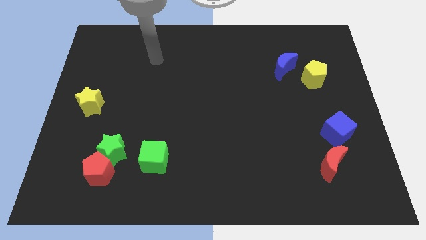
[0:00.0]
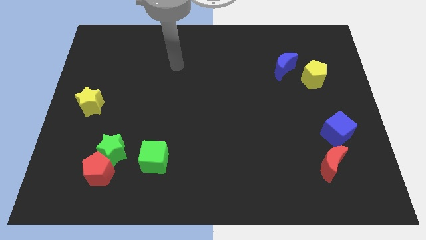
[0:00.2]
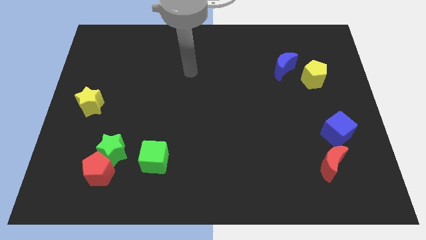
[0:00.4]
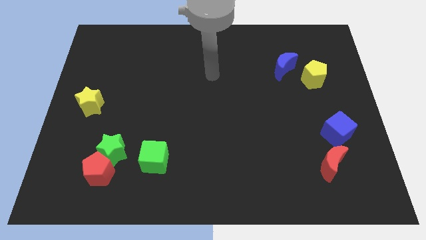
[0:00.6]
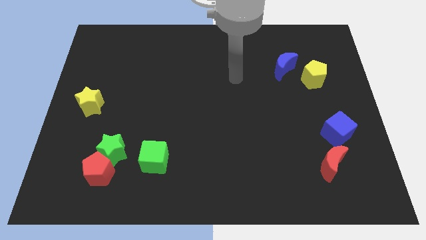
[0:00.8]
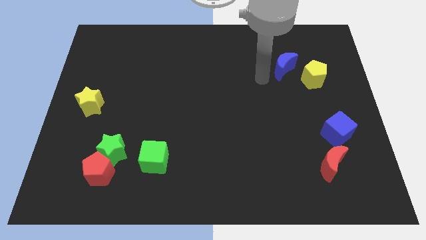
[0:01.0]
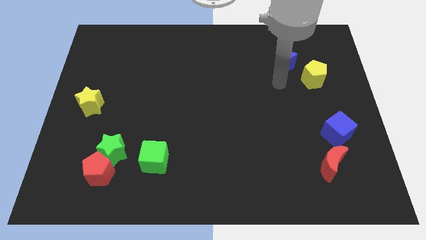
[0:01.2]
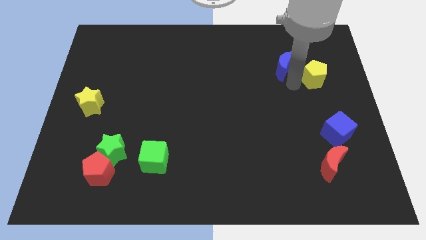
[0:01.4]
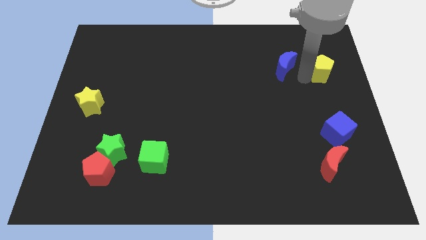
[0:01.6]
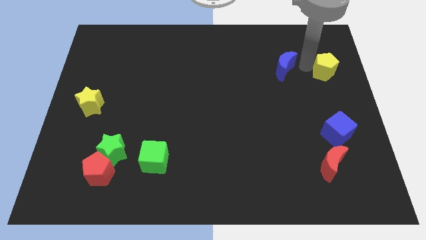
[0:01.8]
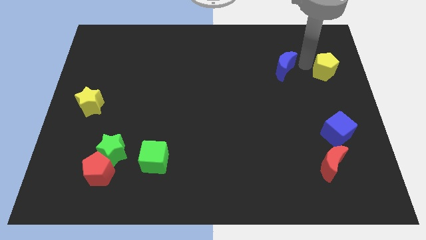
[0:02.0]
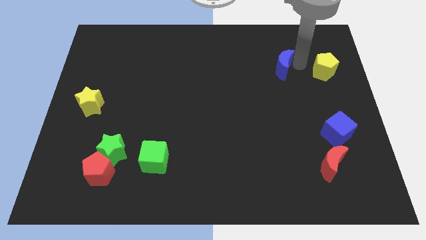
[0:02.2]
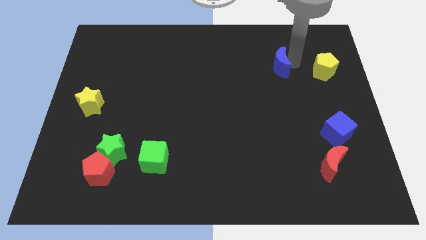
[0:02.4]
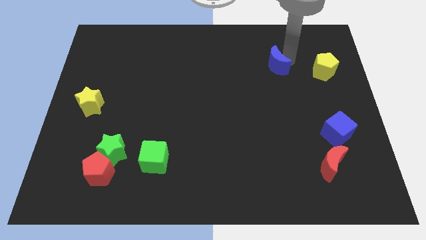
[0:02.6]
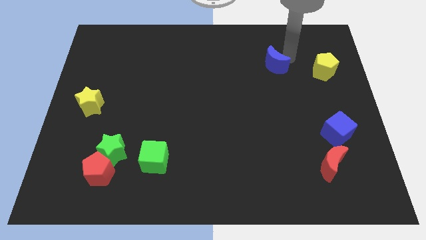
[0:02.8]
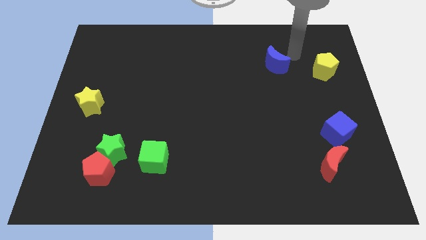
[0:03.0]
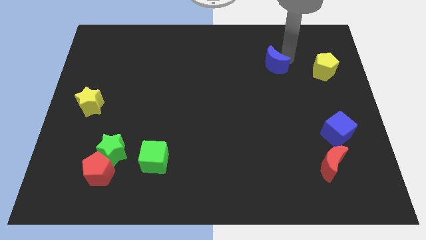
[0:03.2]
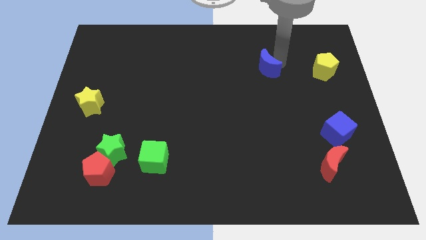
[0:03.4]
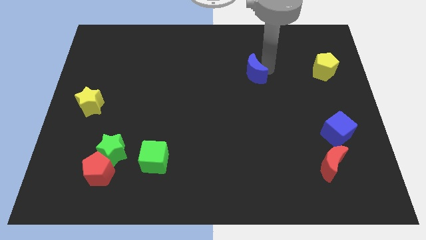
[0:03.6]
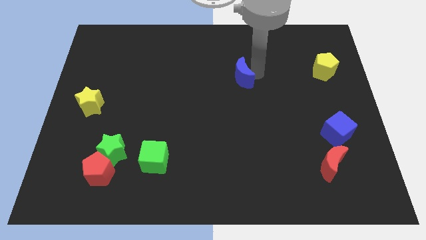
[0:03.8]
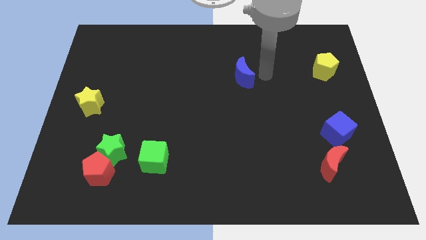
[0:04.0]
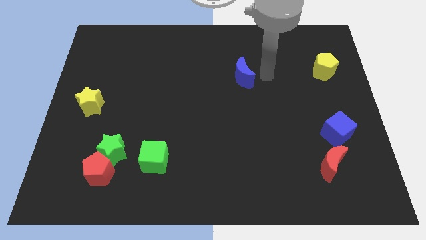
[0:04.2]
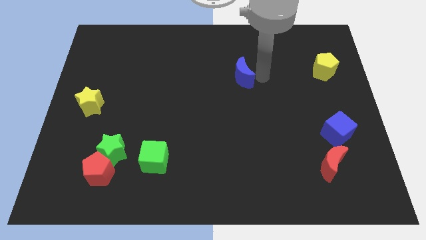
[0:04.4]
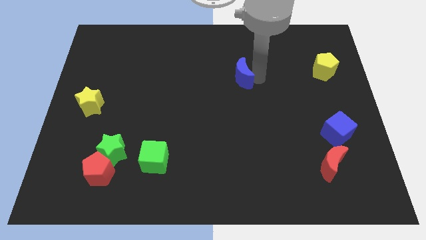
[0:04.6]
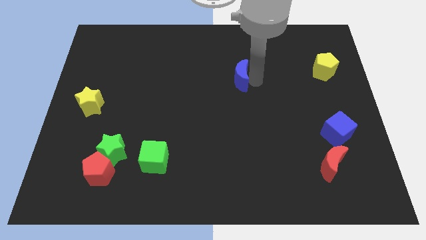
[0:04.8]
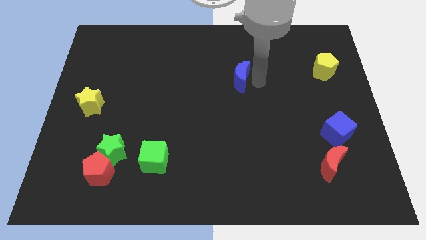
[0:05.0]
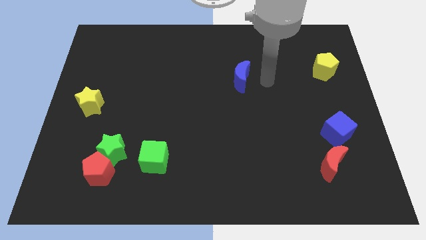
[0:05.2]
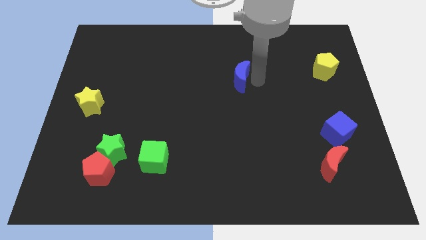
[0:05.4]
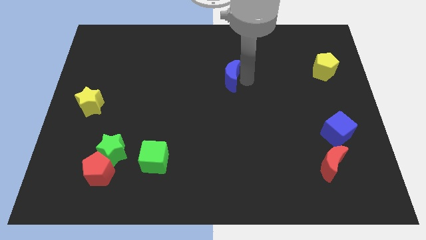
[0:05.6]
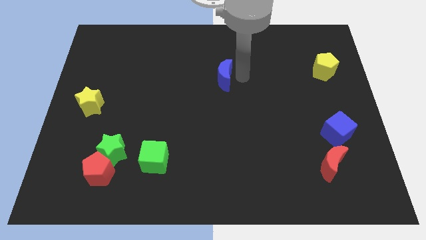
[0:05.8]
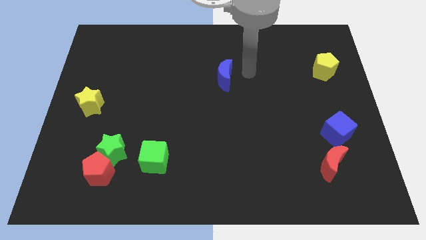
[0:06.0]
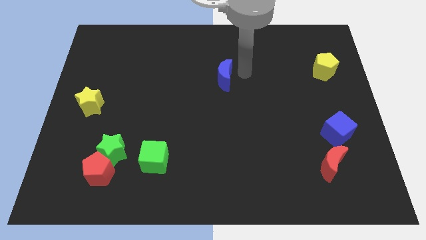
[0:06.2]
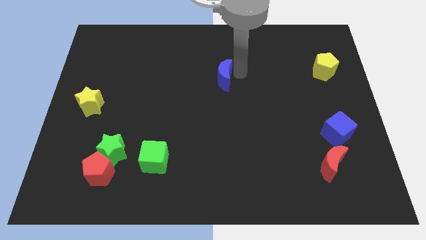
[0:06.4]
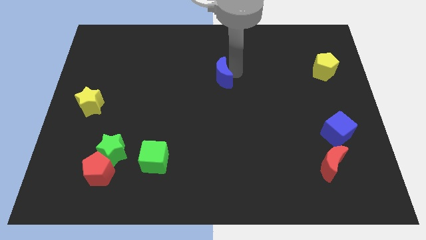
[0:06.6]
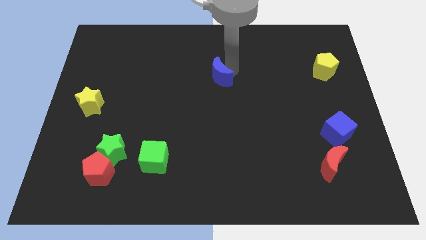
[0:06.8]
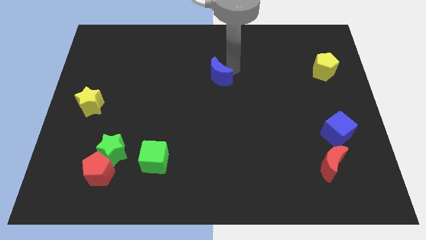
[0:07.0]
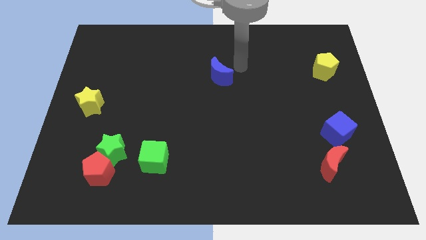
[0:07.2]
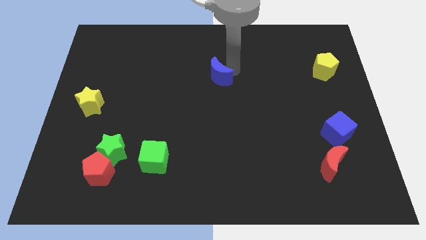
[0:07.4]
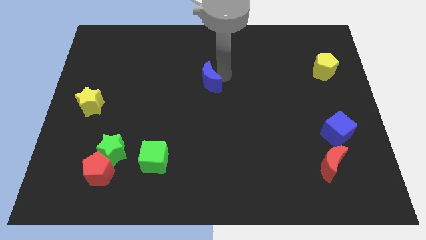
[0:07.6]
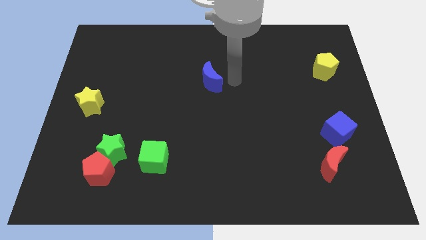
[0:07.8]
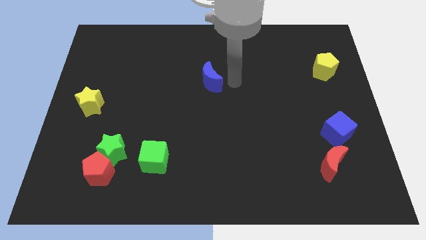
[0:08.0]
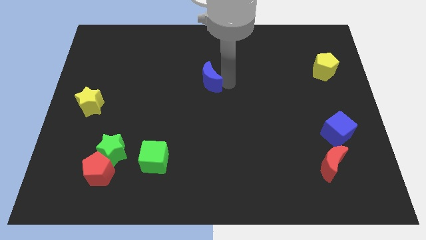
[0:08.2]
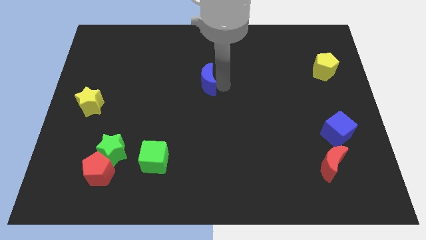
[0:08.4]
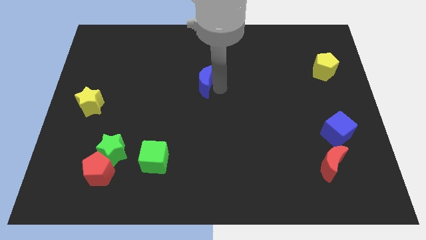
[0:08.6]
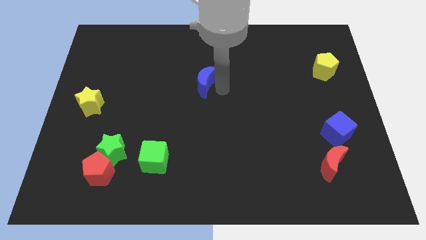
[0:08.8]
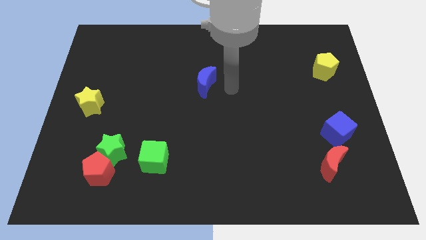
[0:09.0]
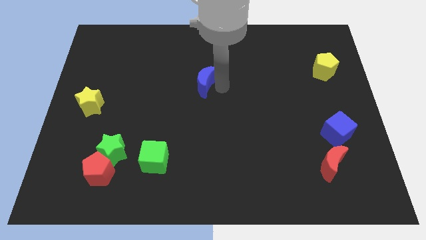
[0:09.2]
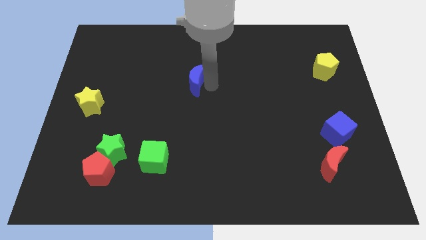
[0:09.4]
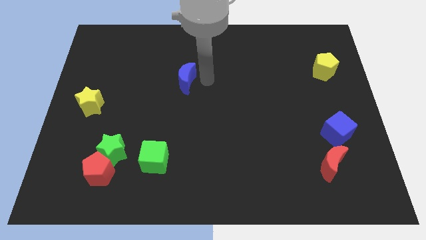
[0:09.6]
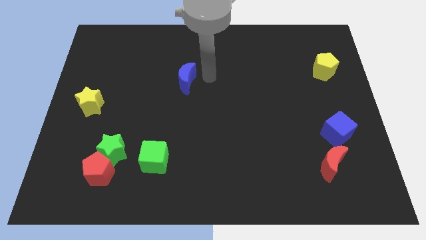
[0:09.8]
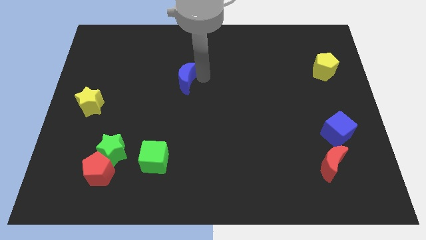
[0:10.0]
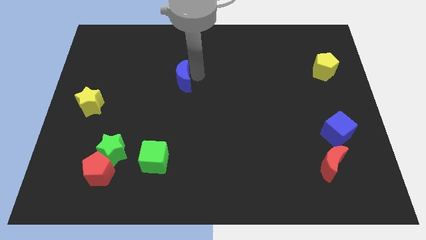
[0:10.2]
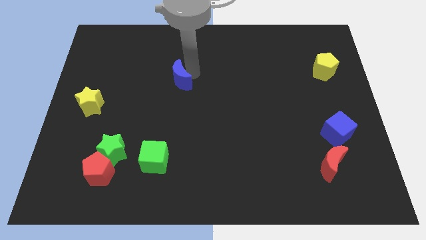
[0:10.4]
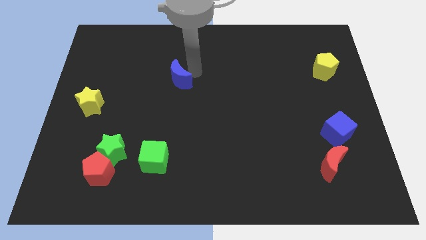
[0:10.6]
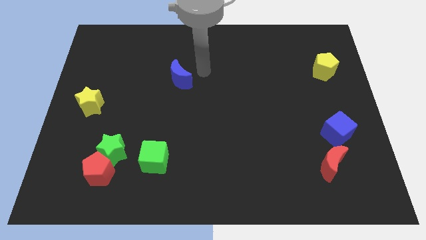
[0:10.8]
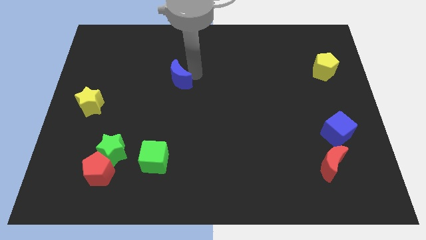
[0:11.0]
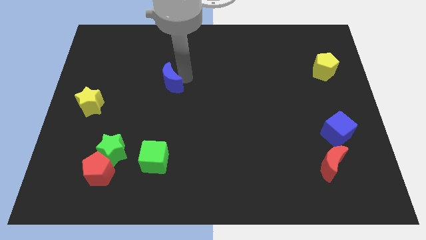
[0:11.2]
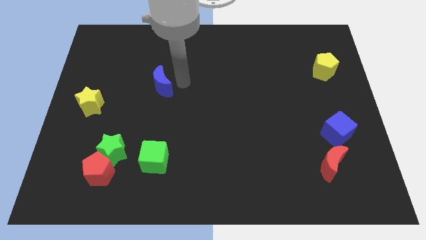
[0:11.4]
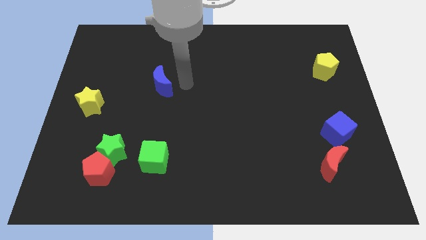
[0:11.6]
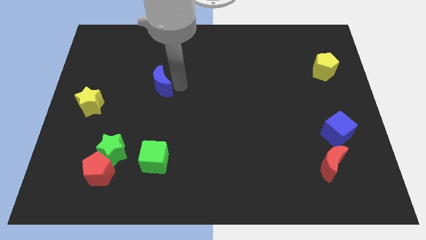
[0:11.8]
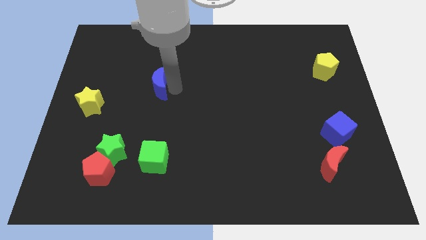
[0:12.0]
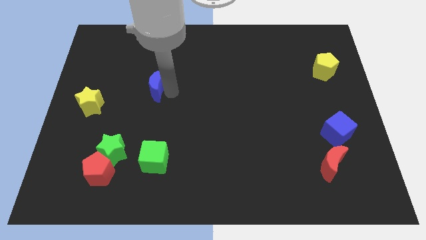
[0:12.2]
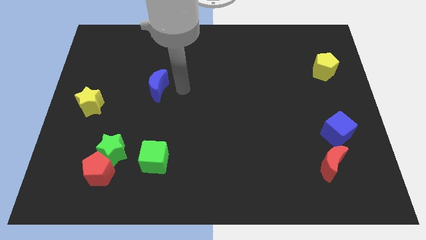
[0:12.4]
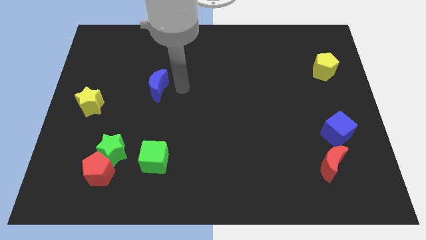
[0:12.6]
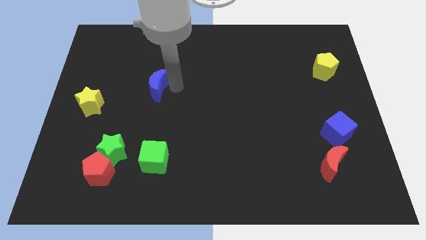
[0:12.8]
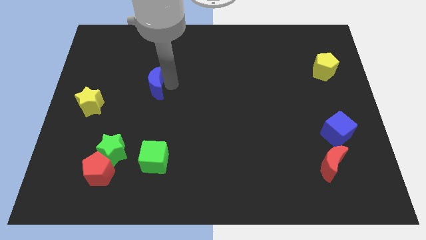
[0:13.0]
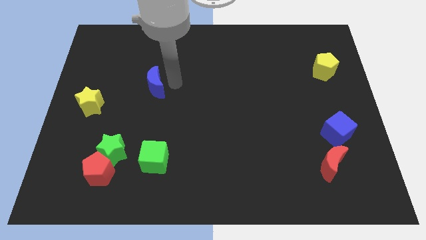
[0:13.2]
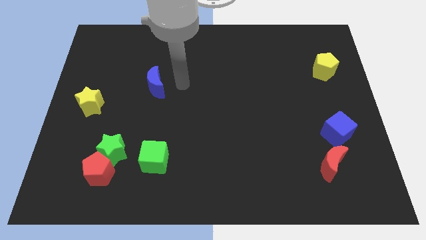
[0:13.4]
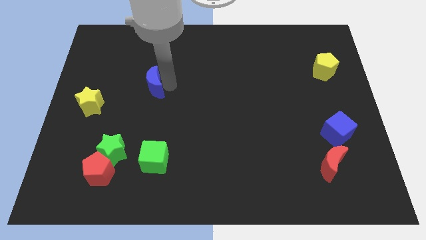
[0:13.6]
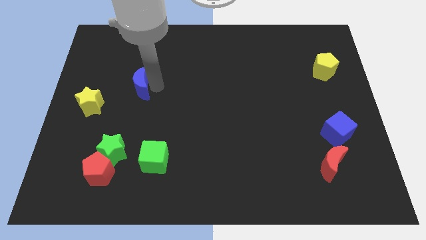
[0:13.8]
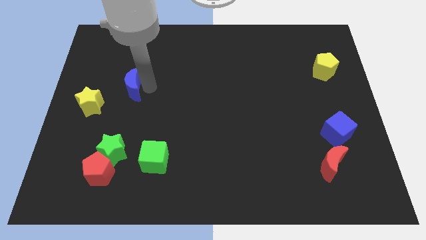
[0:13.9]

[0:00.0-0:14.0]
put the blue moon to the top right side of the yellow star

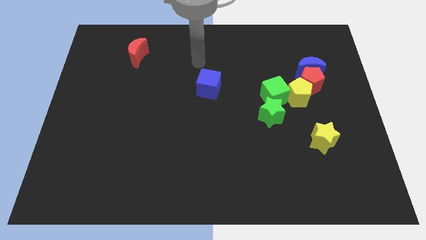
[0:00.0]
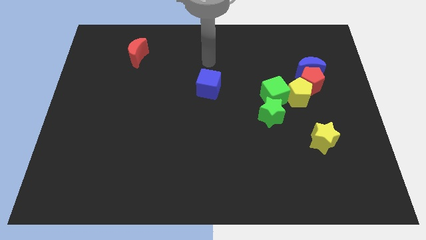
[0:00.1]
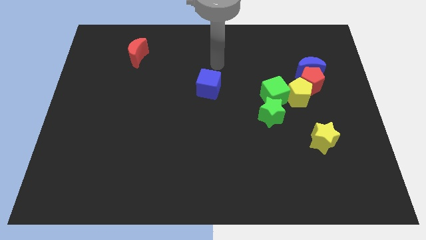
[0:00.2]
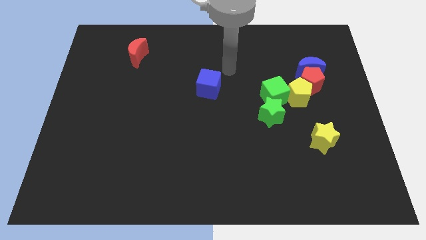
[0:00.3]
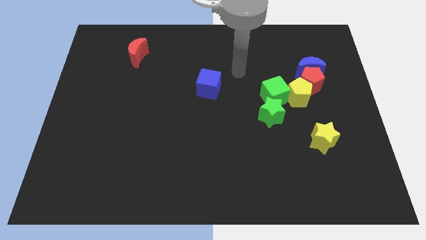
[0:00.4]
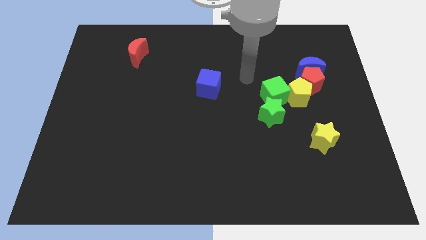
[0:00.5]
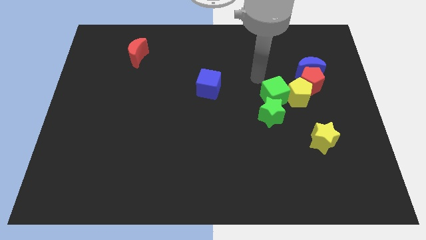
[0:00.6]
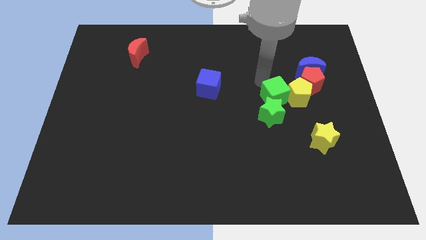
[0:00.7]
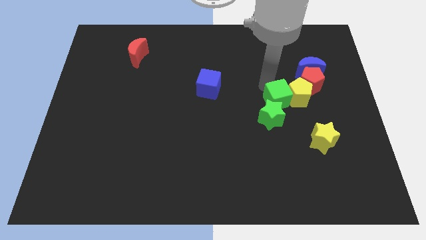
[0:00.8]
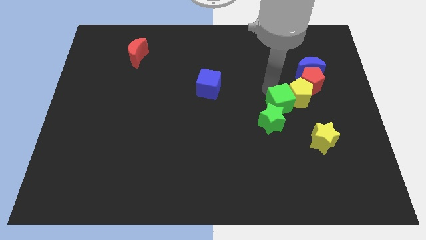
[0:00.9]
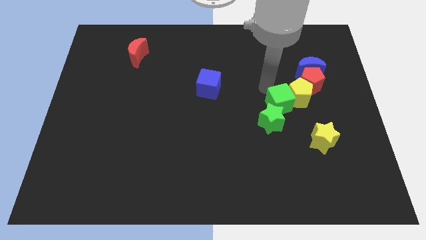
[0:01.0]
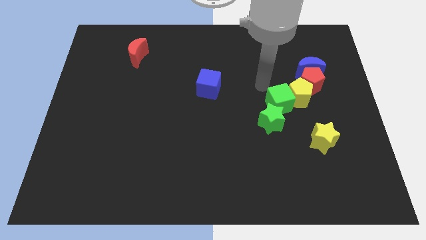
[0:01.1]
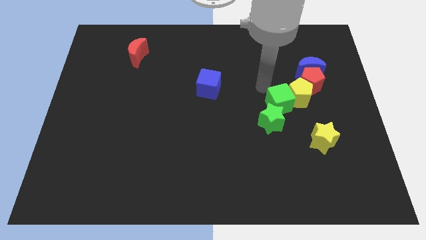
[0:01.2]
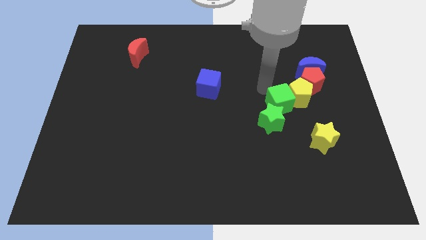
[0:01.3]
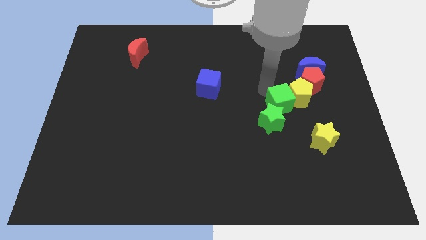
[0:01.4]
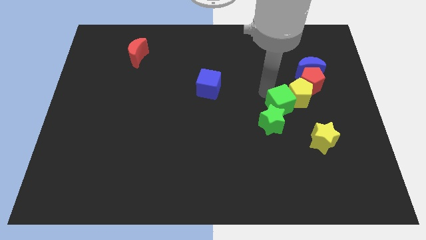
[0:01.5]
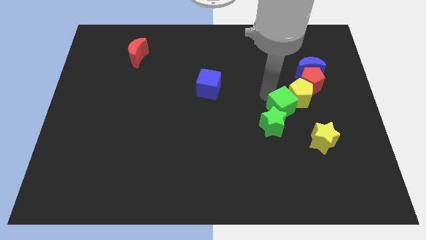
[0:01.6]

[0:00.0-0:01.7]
push the green cube to the bottom of the yellow pentagon
